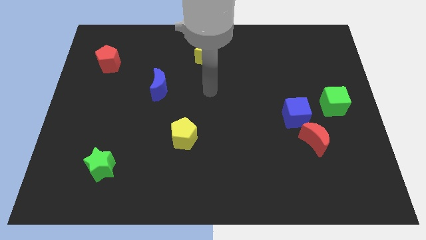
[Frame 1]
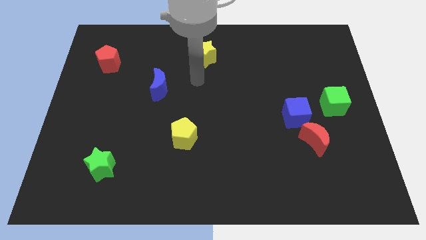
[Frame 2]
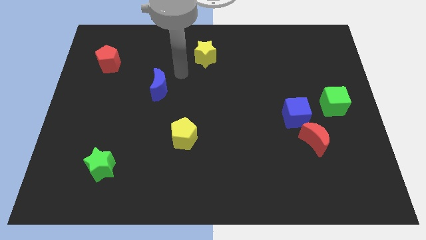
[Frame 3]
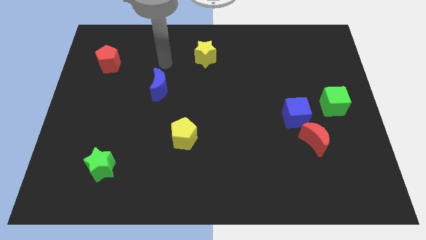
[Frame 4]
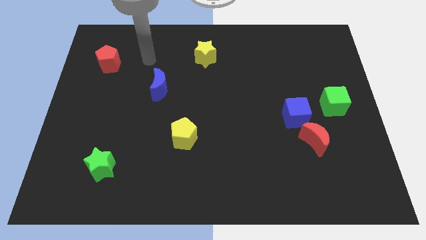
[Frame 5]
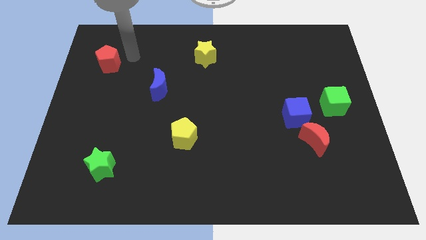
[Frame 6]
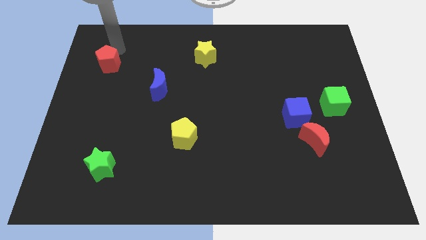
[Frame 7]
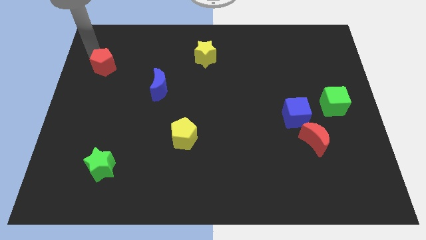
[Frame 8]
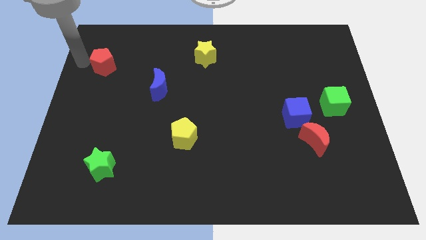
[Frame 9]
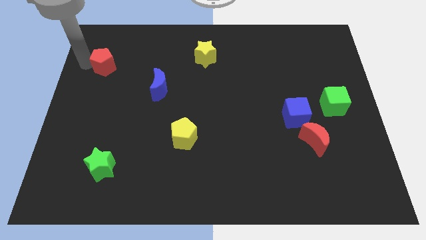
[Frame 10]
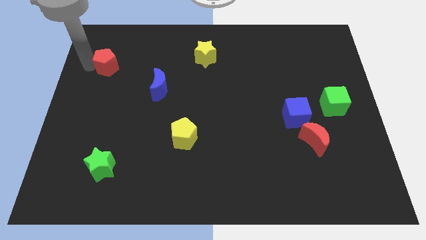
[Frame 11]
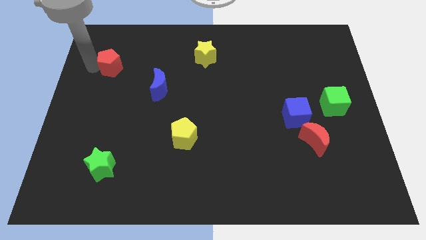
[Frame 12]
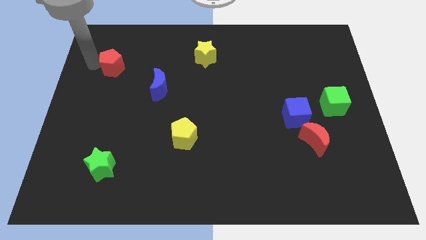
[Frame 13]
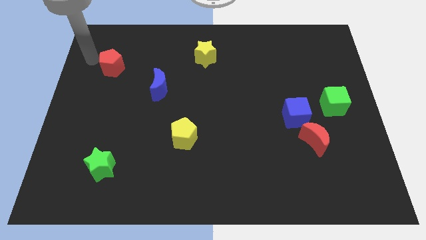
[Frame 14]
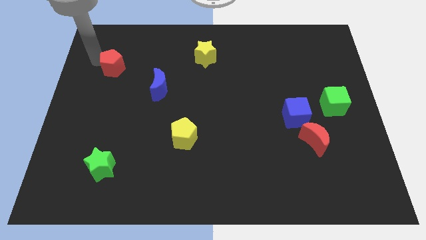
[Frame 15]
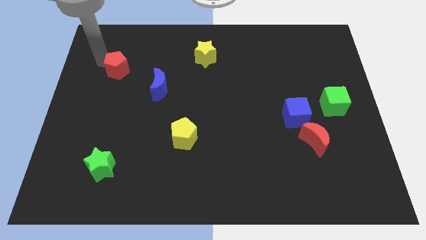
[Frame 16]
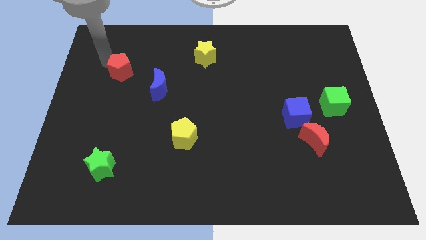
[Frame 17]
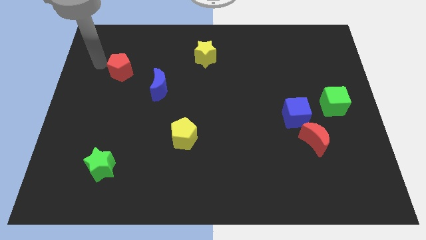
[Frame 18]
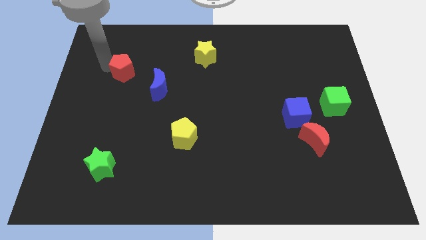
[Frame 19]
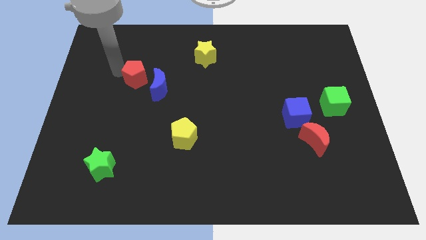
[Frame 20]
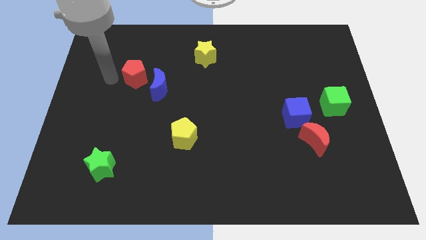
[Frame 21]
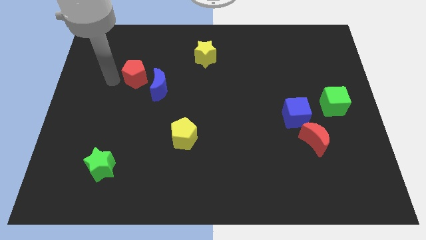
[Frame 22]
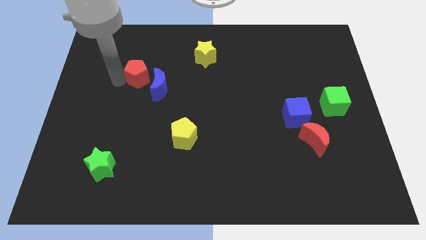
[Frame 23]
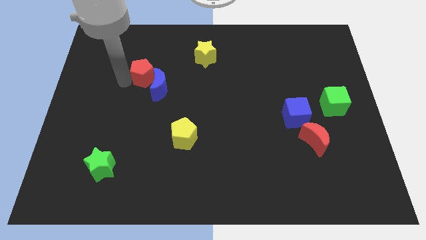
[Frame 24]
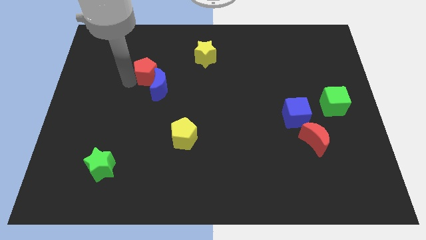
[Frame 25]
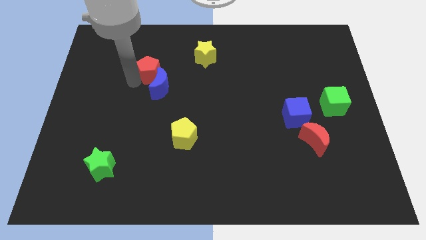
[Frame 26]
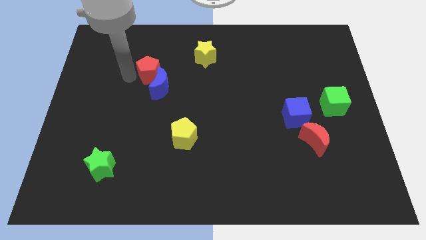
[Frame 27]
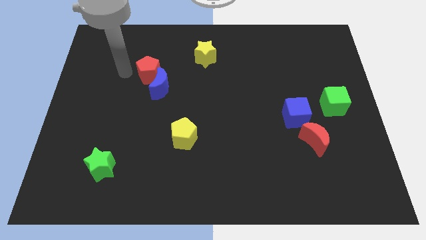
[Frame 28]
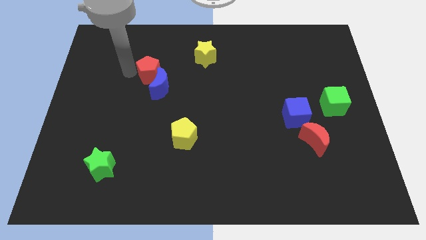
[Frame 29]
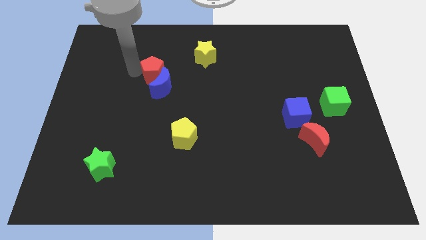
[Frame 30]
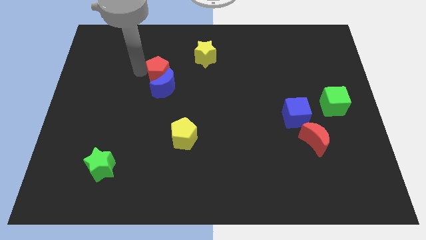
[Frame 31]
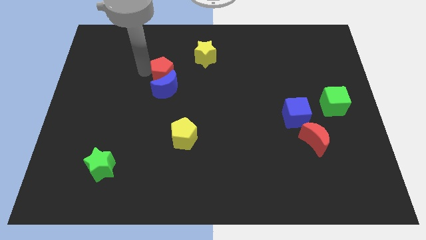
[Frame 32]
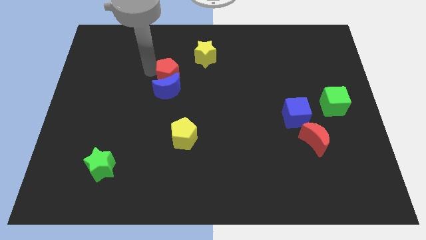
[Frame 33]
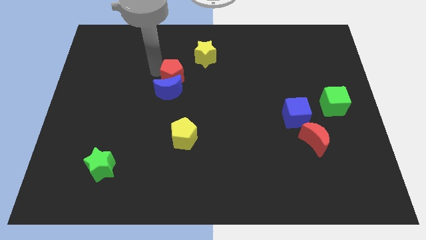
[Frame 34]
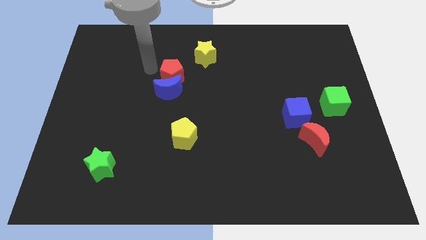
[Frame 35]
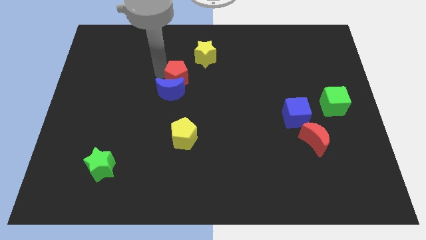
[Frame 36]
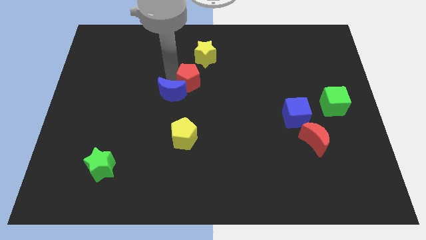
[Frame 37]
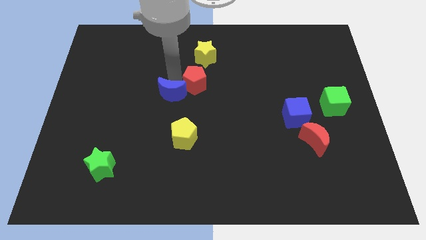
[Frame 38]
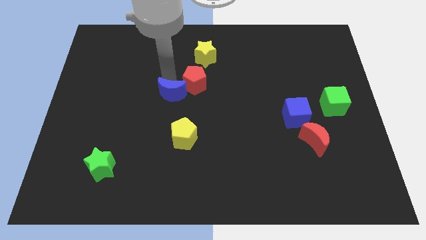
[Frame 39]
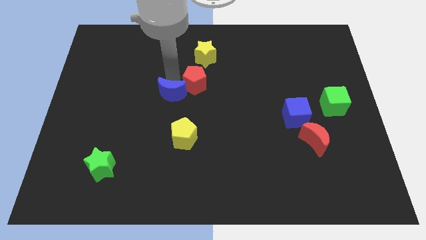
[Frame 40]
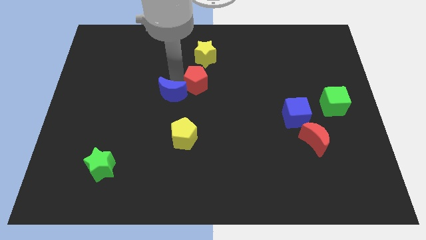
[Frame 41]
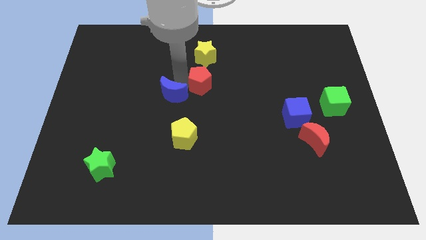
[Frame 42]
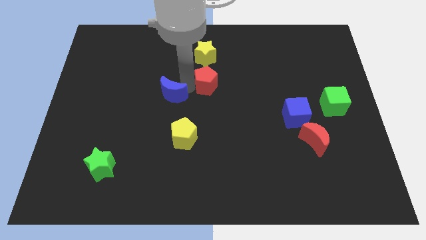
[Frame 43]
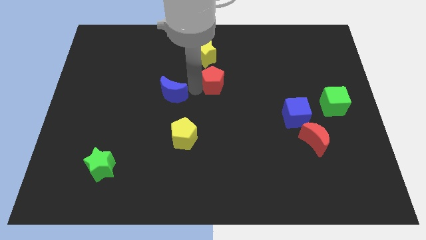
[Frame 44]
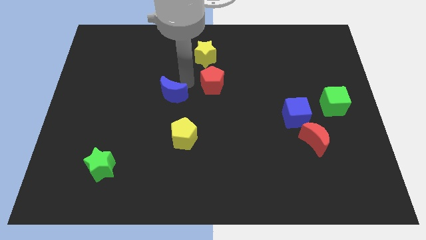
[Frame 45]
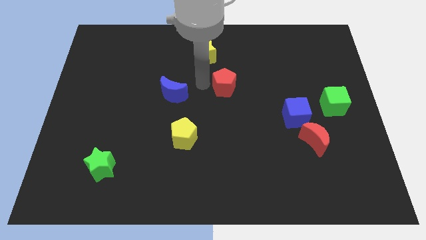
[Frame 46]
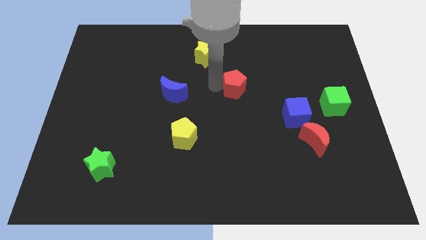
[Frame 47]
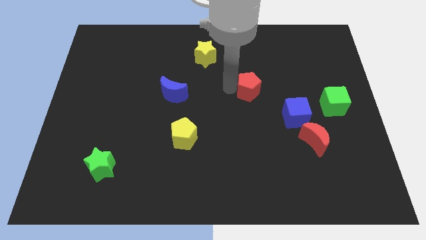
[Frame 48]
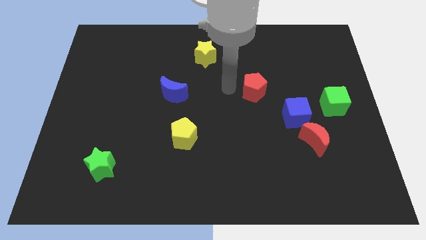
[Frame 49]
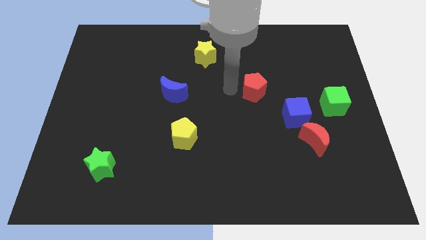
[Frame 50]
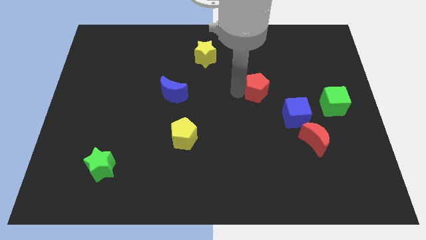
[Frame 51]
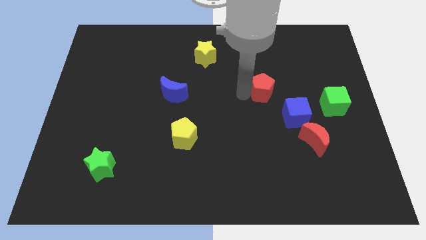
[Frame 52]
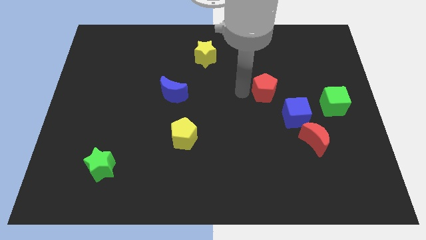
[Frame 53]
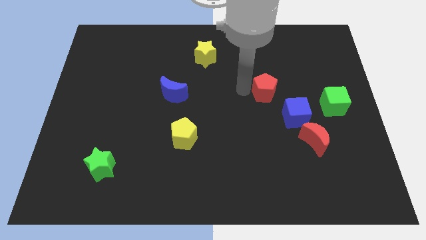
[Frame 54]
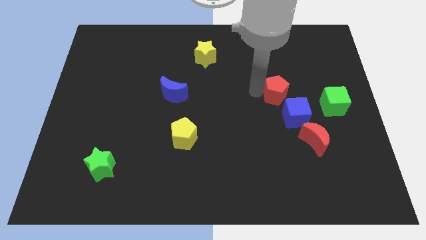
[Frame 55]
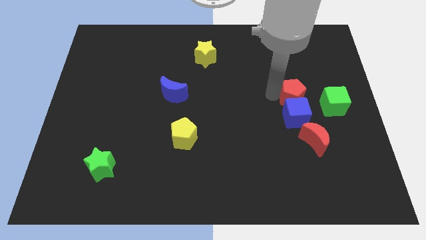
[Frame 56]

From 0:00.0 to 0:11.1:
push the red pentagon to the top right side of the blue cube

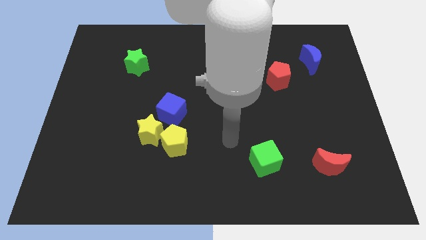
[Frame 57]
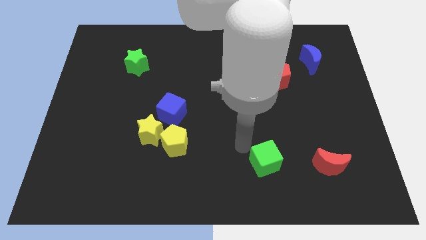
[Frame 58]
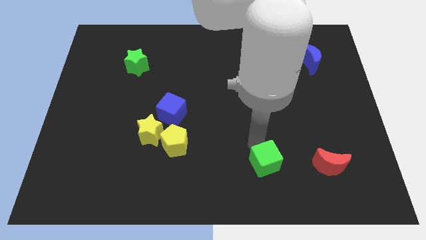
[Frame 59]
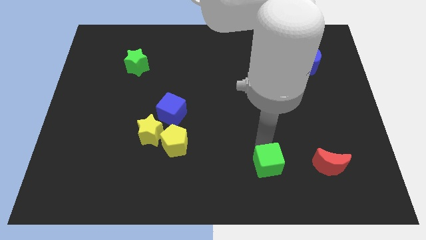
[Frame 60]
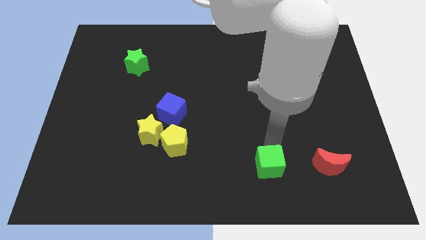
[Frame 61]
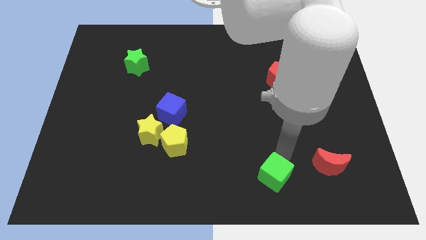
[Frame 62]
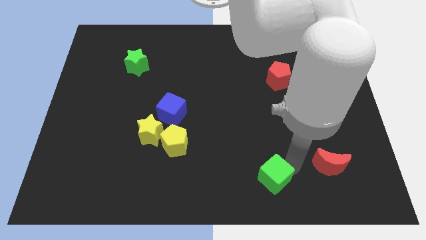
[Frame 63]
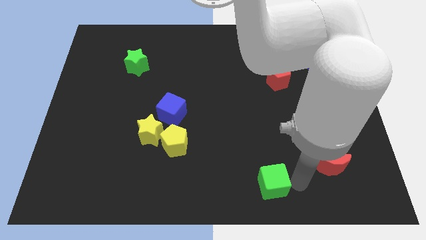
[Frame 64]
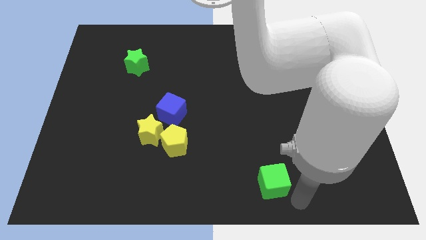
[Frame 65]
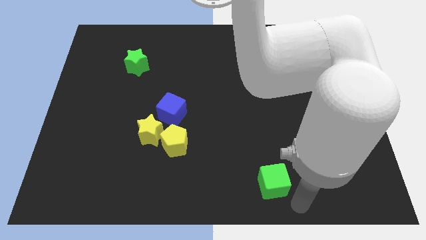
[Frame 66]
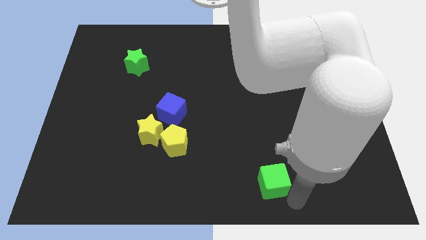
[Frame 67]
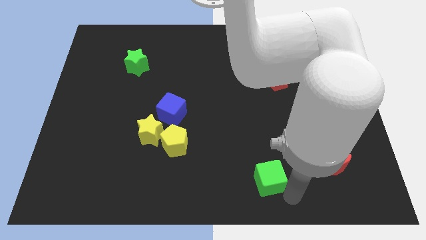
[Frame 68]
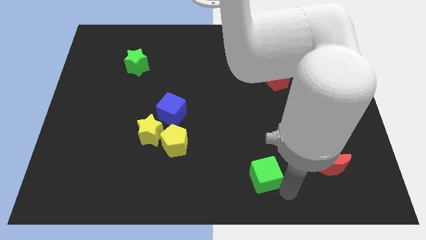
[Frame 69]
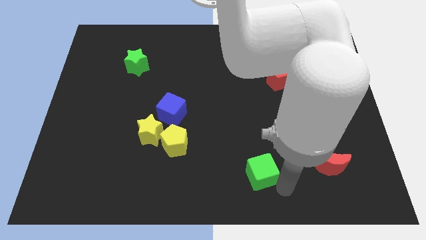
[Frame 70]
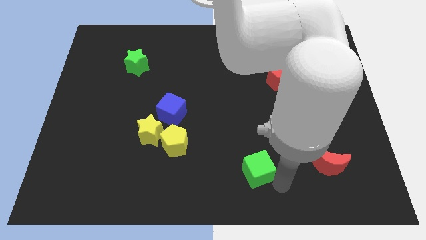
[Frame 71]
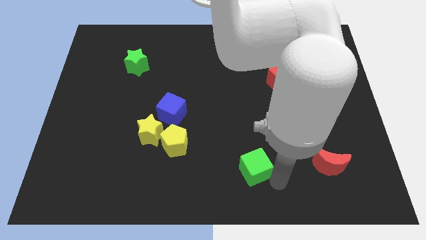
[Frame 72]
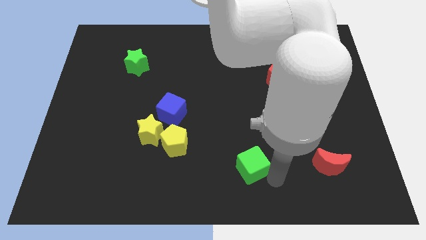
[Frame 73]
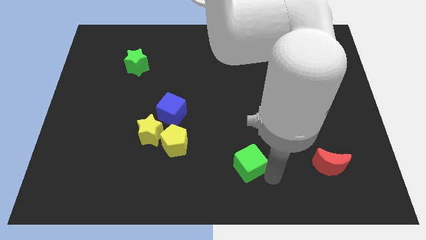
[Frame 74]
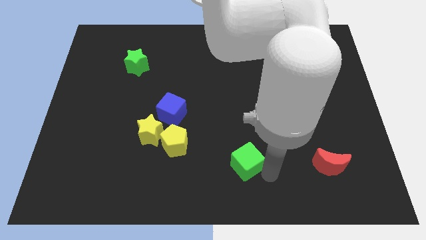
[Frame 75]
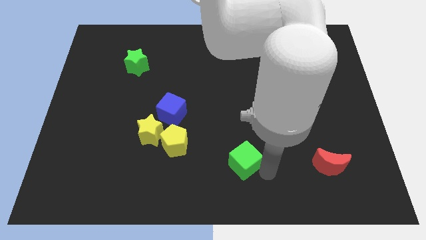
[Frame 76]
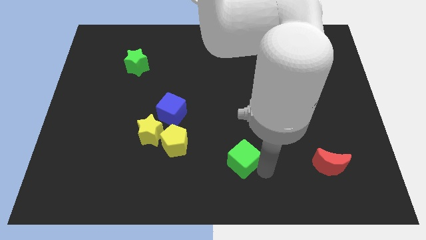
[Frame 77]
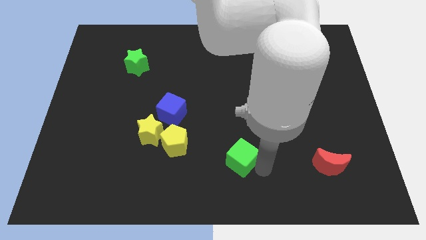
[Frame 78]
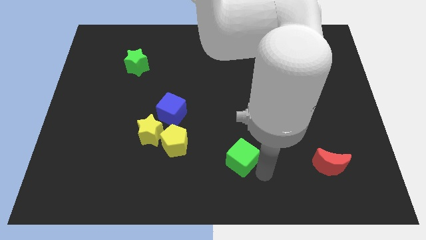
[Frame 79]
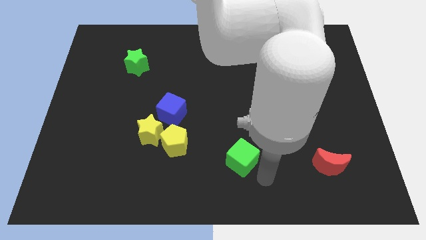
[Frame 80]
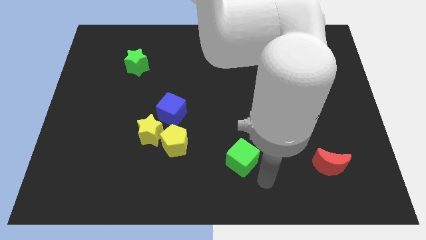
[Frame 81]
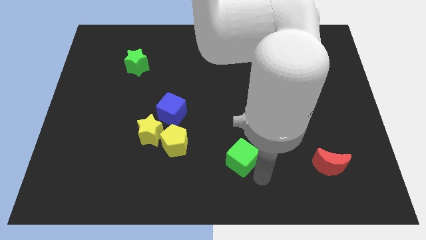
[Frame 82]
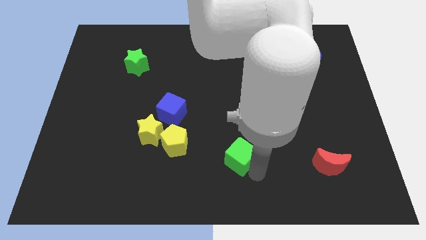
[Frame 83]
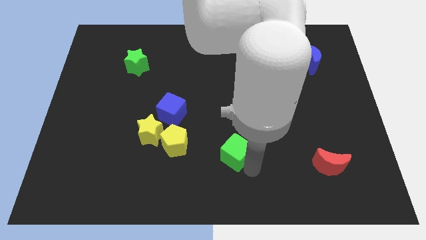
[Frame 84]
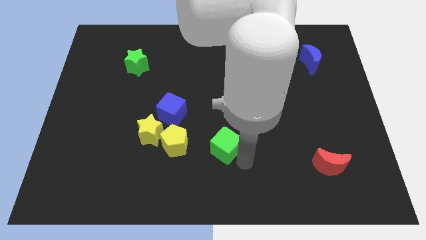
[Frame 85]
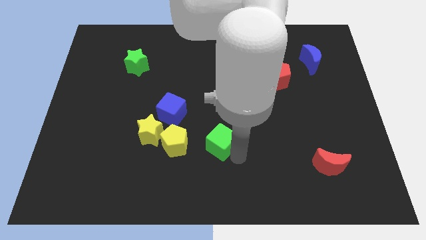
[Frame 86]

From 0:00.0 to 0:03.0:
push the green cube right of the yellow star
